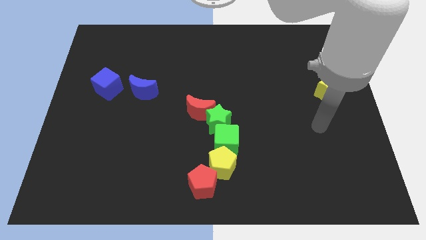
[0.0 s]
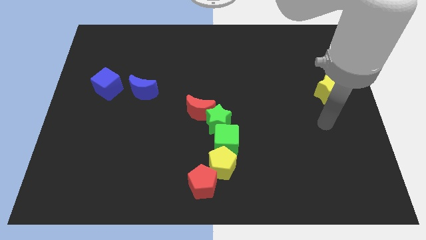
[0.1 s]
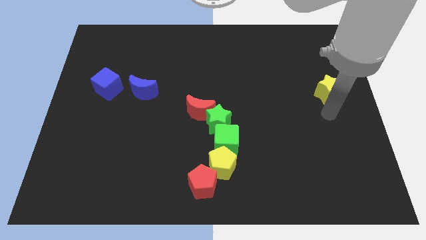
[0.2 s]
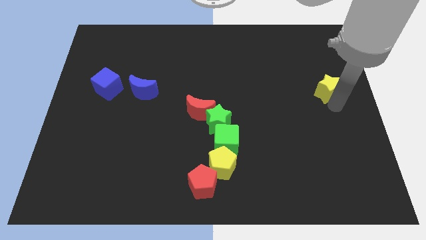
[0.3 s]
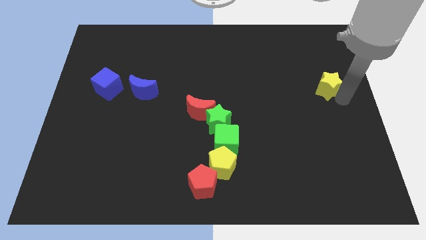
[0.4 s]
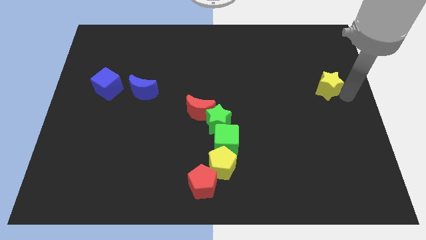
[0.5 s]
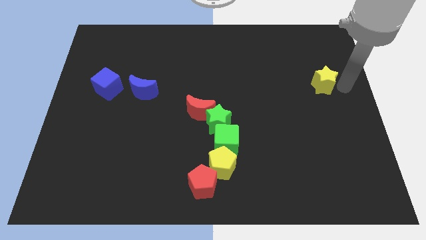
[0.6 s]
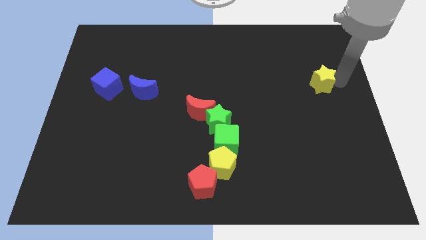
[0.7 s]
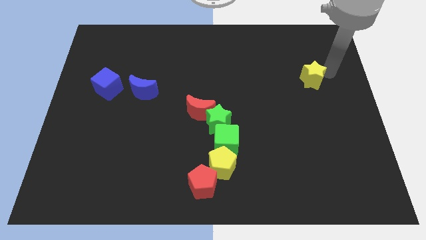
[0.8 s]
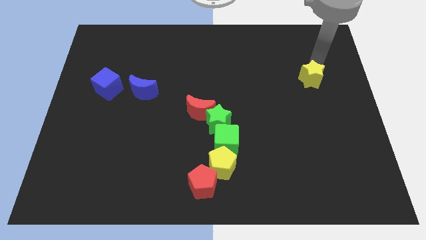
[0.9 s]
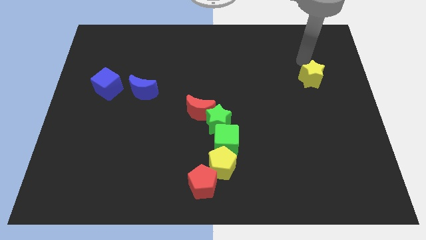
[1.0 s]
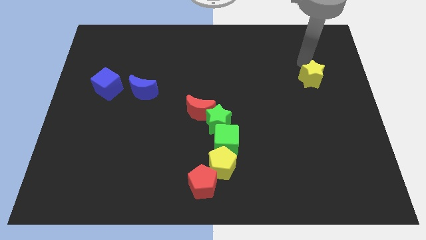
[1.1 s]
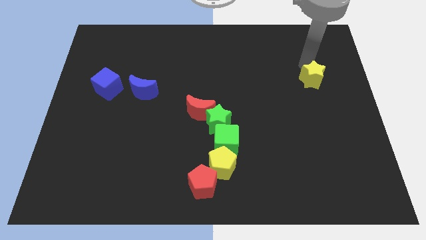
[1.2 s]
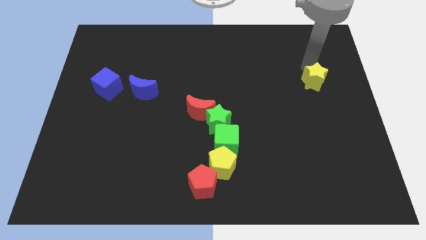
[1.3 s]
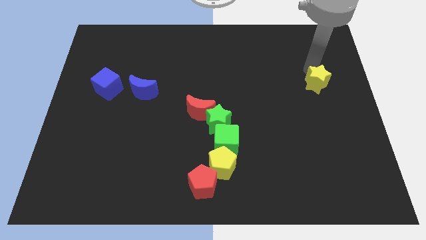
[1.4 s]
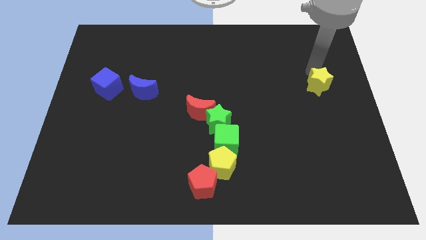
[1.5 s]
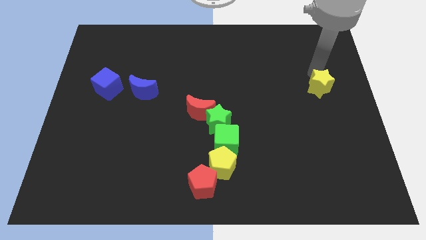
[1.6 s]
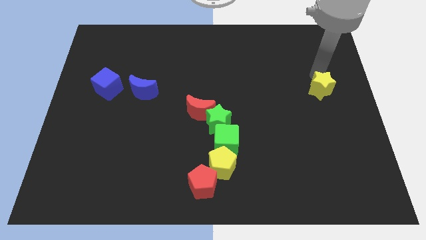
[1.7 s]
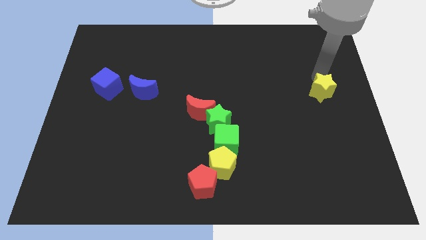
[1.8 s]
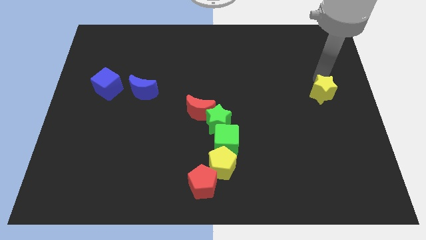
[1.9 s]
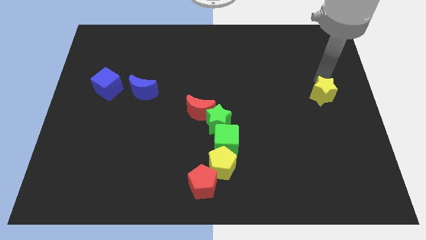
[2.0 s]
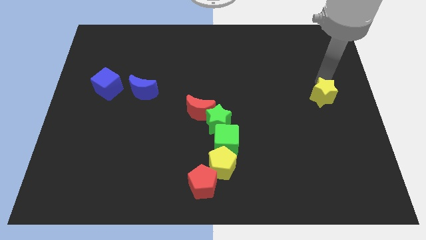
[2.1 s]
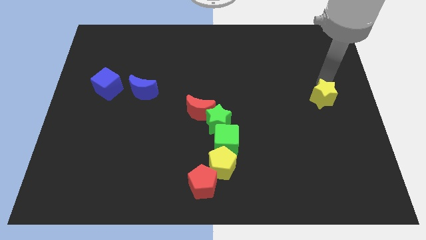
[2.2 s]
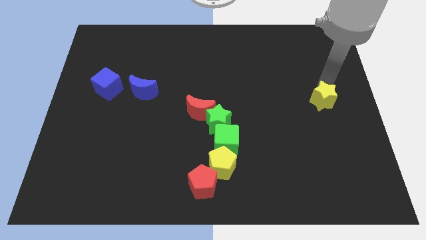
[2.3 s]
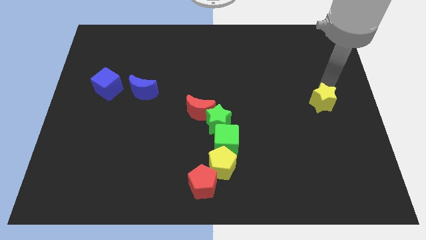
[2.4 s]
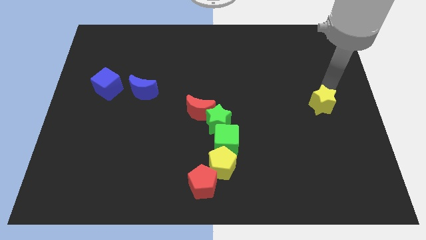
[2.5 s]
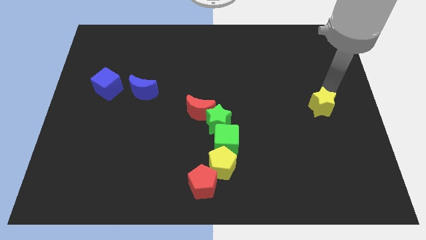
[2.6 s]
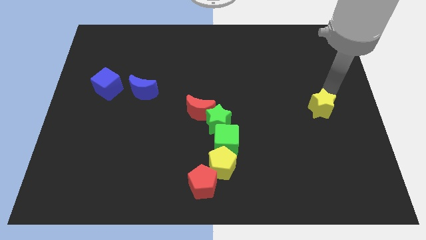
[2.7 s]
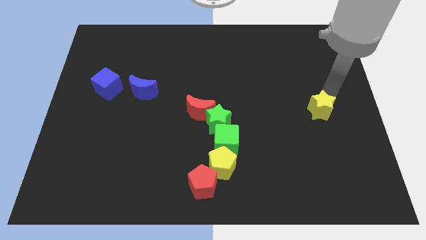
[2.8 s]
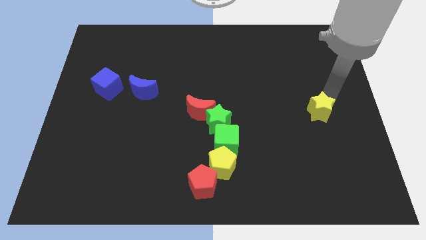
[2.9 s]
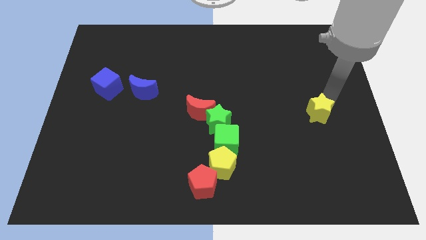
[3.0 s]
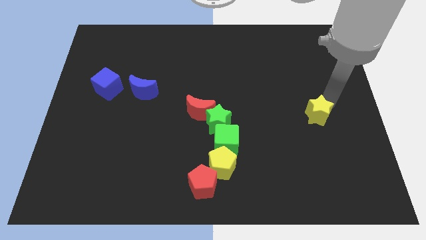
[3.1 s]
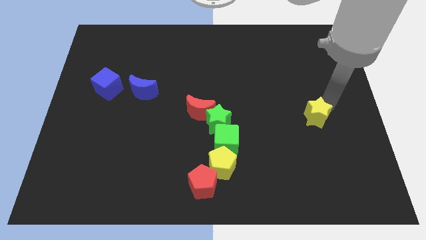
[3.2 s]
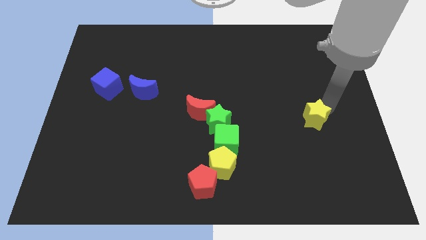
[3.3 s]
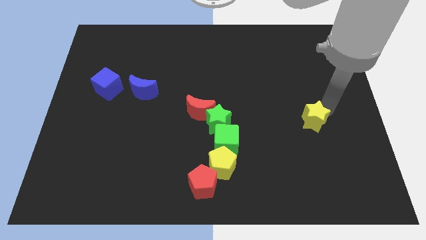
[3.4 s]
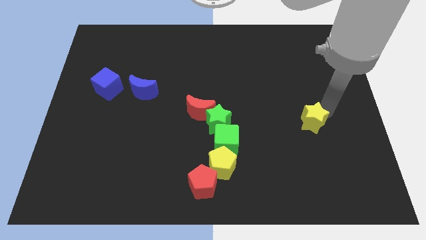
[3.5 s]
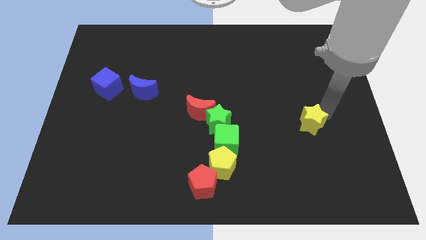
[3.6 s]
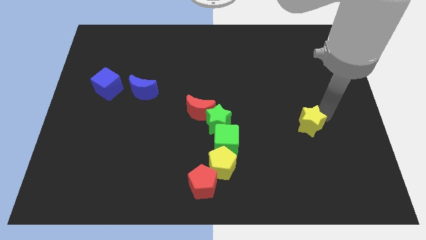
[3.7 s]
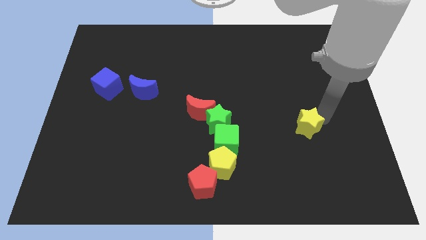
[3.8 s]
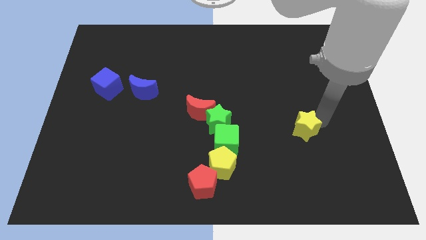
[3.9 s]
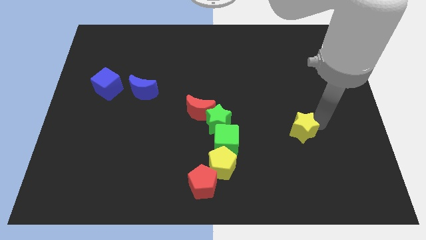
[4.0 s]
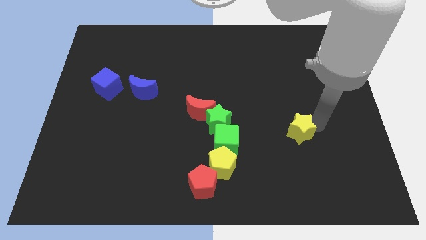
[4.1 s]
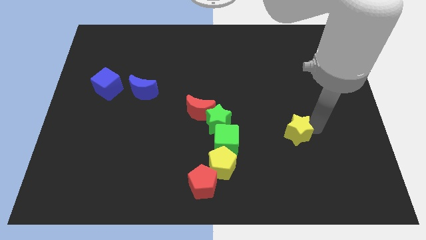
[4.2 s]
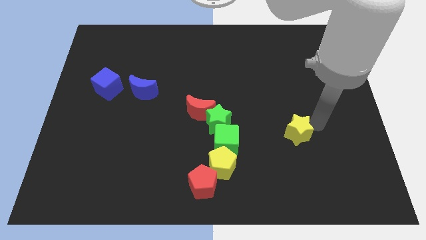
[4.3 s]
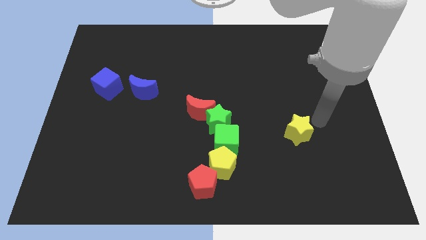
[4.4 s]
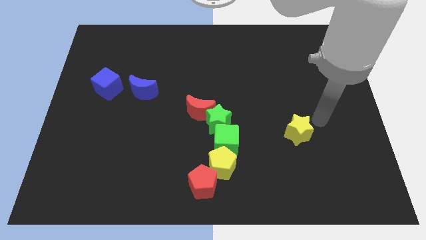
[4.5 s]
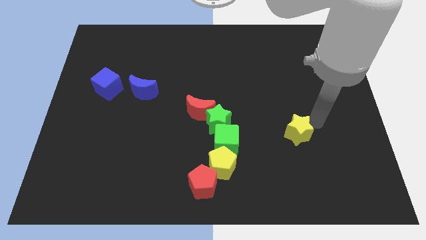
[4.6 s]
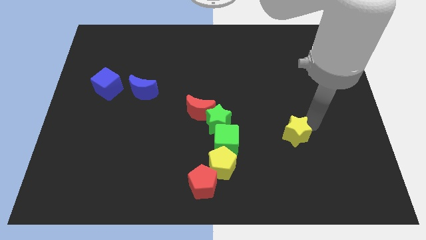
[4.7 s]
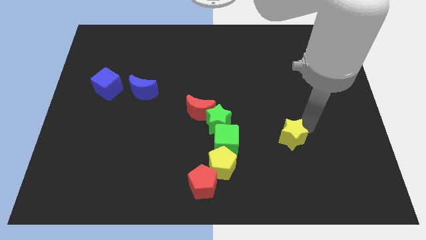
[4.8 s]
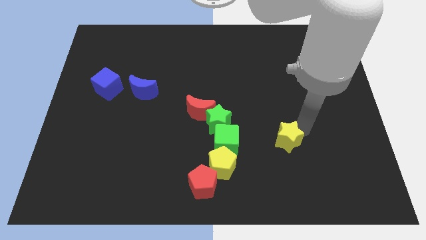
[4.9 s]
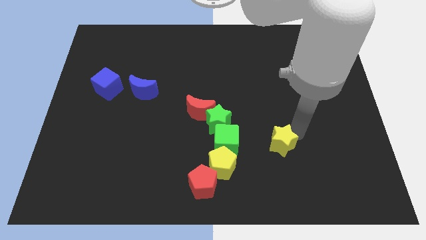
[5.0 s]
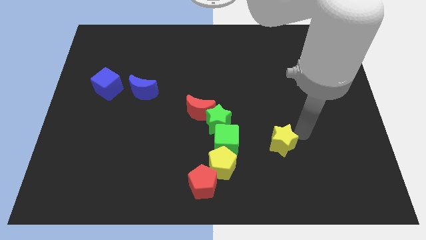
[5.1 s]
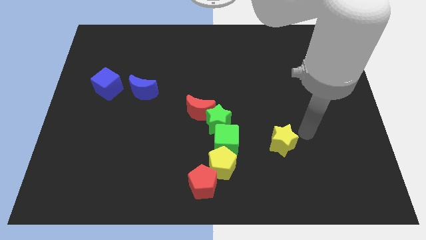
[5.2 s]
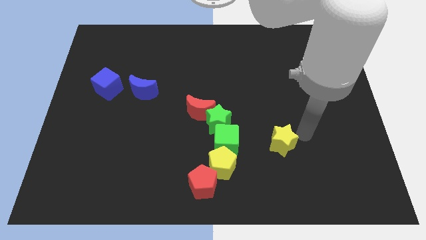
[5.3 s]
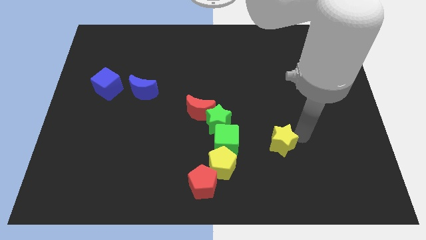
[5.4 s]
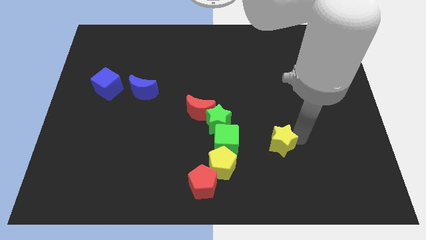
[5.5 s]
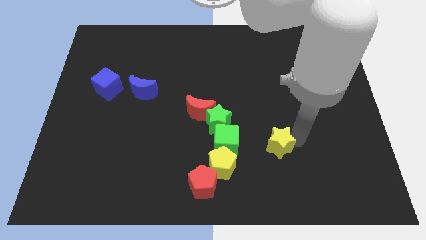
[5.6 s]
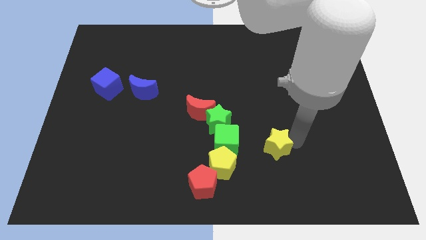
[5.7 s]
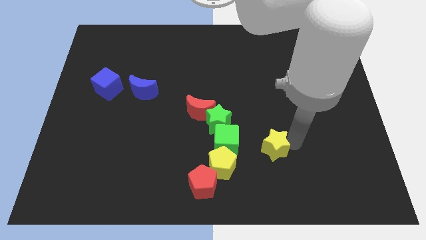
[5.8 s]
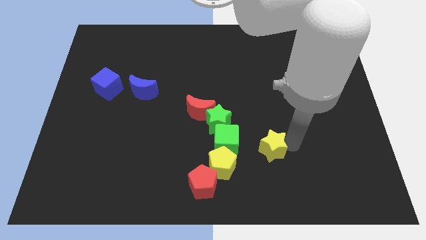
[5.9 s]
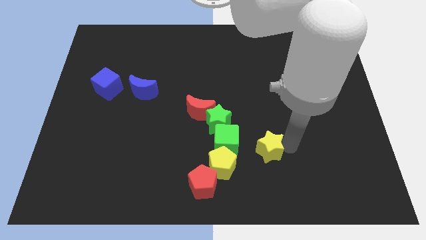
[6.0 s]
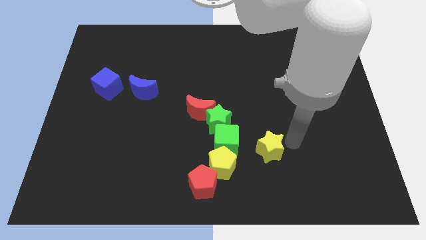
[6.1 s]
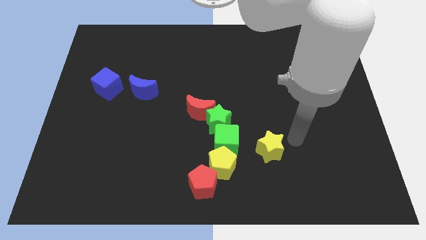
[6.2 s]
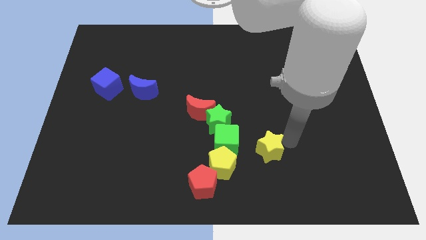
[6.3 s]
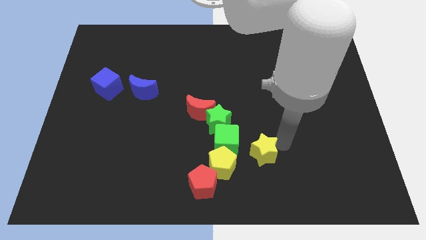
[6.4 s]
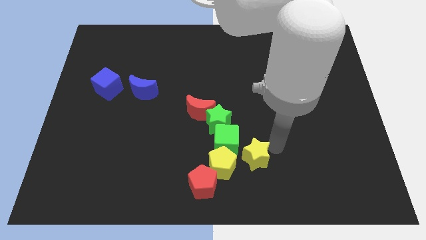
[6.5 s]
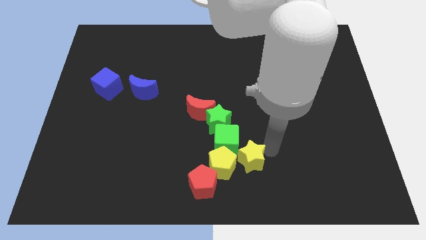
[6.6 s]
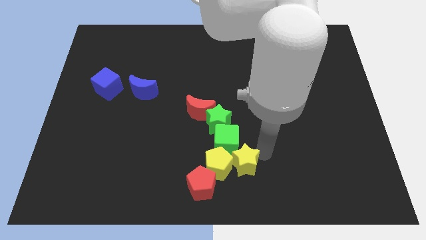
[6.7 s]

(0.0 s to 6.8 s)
put the yellow star close to the yellow pentagon

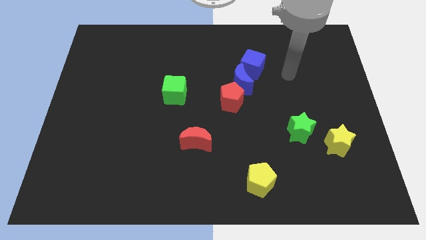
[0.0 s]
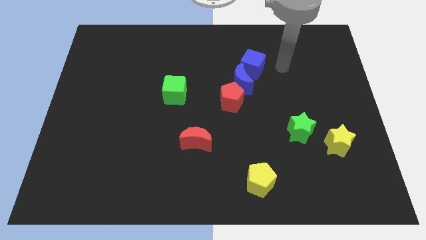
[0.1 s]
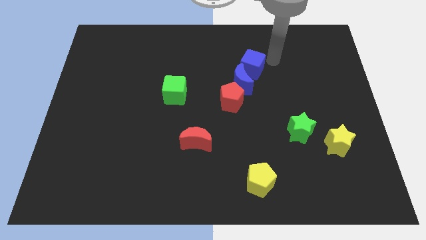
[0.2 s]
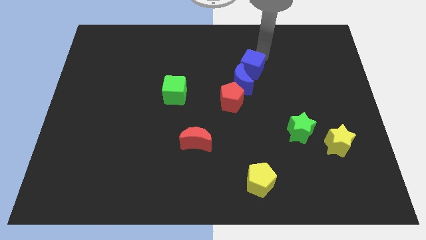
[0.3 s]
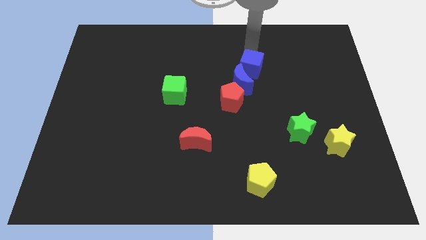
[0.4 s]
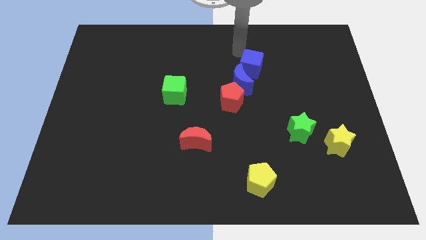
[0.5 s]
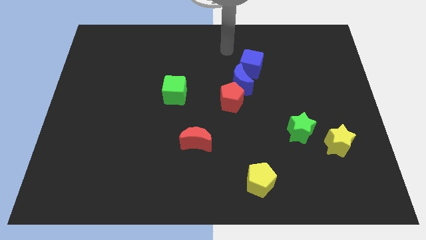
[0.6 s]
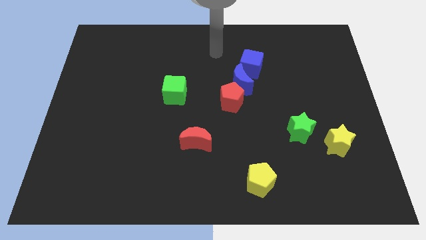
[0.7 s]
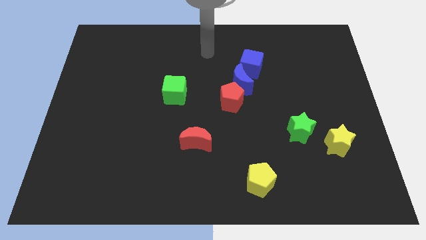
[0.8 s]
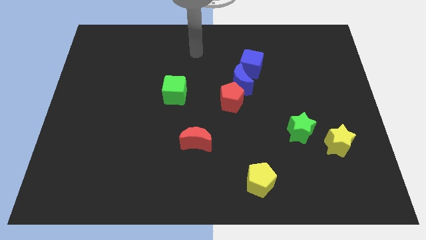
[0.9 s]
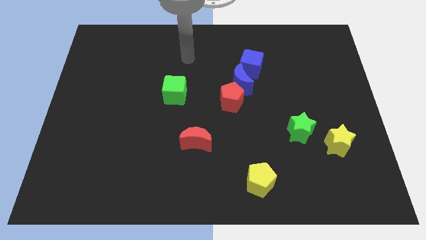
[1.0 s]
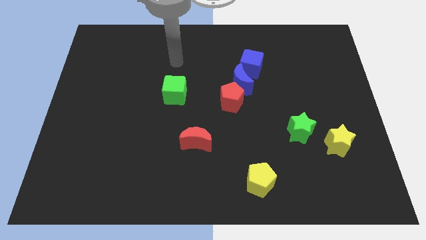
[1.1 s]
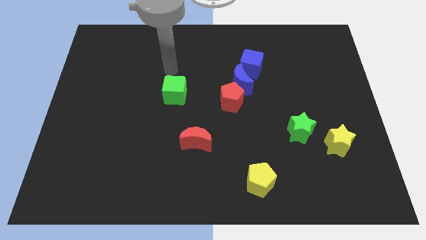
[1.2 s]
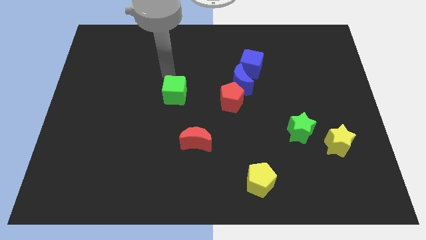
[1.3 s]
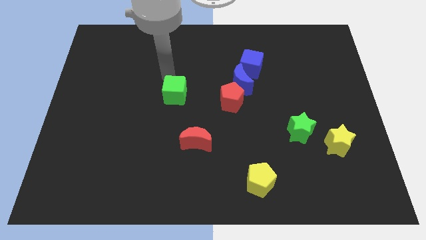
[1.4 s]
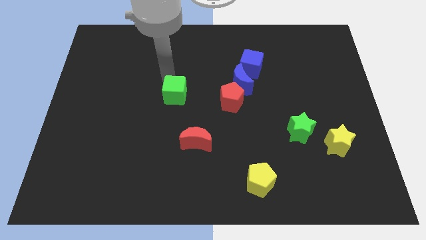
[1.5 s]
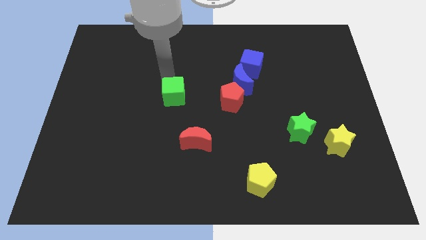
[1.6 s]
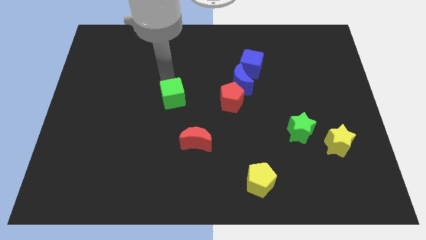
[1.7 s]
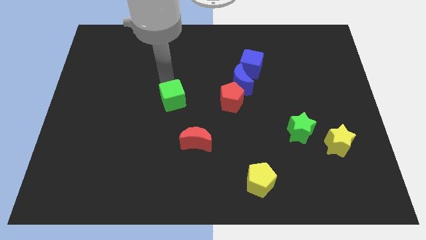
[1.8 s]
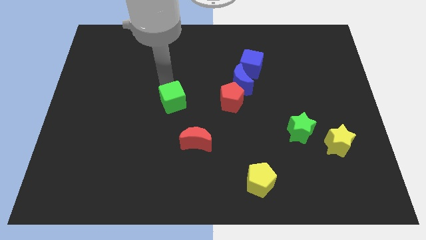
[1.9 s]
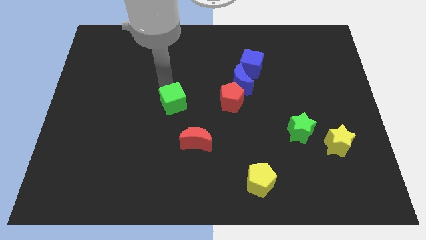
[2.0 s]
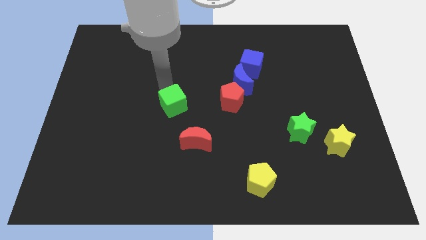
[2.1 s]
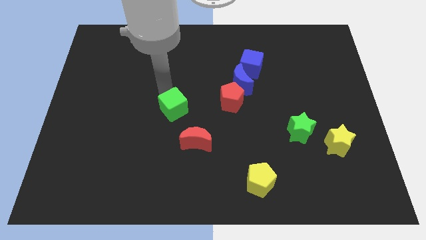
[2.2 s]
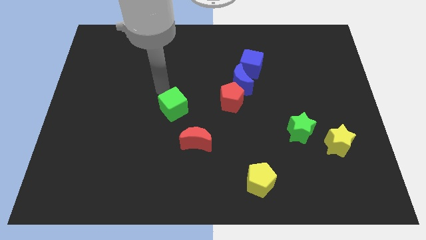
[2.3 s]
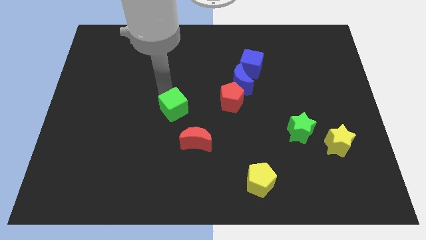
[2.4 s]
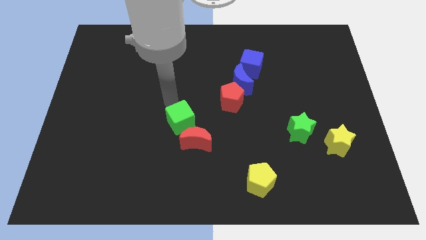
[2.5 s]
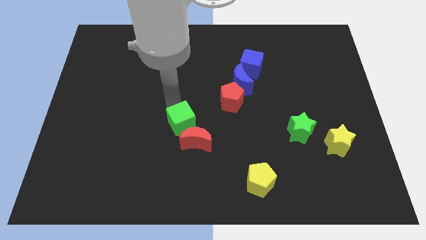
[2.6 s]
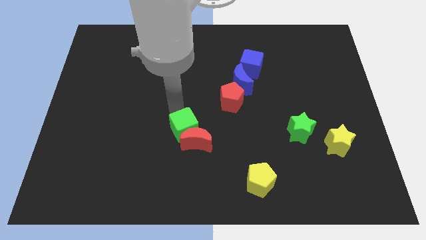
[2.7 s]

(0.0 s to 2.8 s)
slide the green cube close to the red moon
